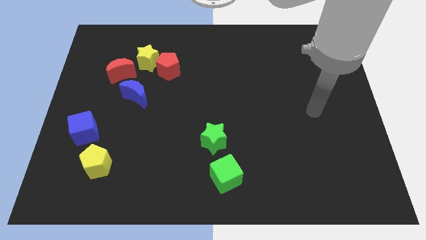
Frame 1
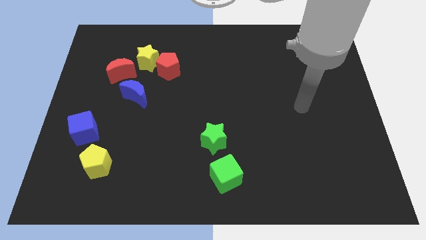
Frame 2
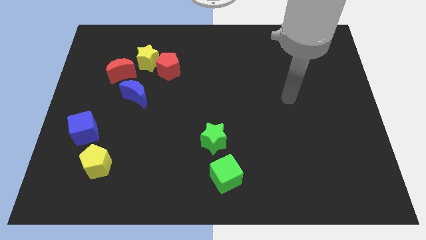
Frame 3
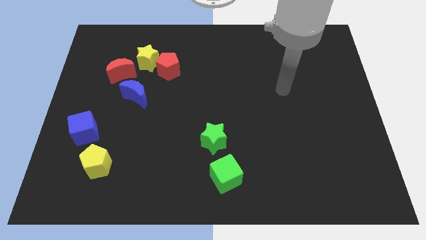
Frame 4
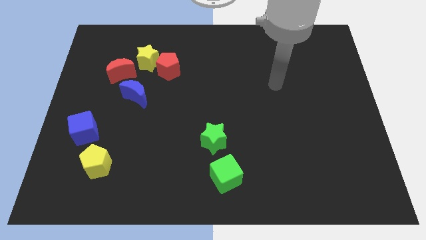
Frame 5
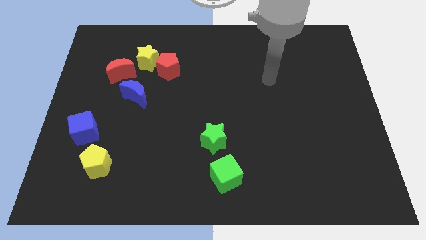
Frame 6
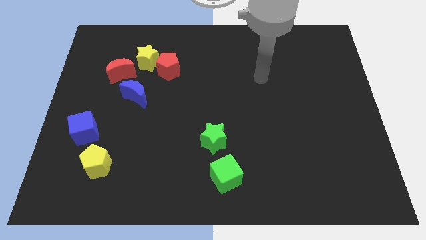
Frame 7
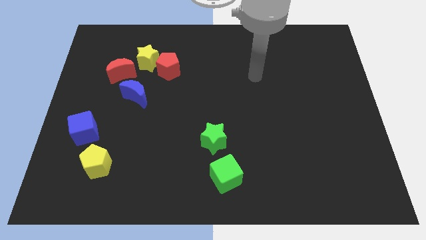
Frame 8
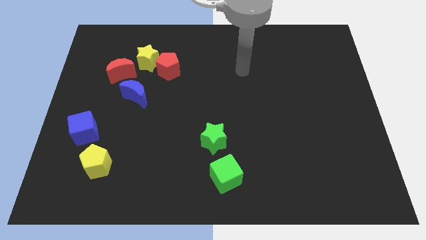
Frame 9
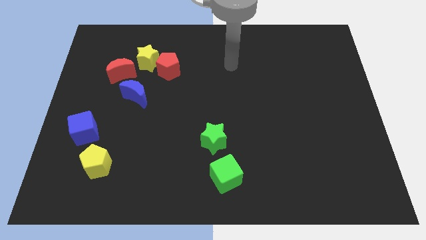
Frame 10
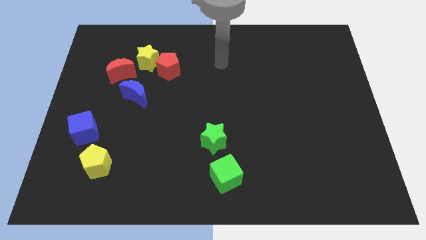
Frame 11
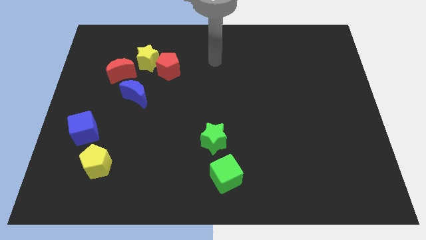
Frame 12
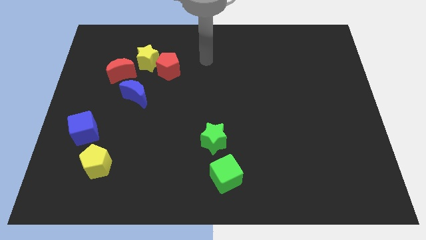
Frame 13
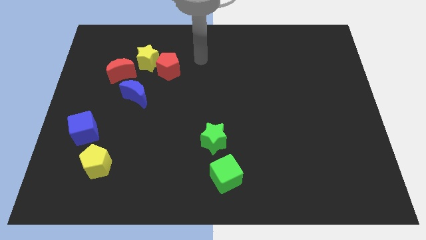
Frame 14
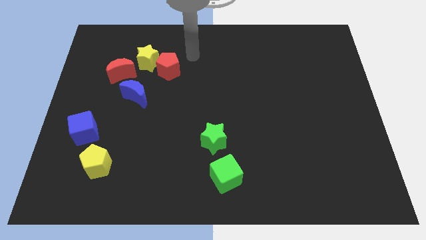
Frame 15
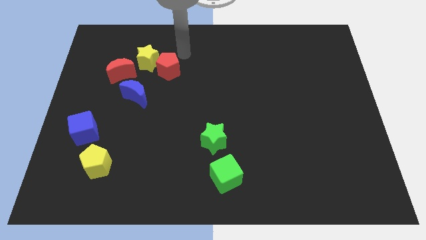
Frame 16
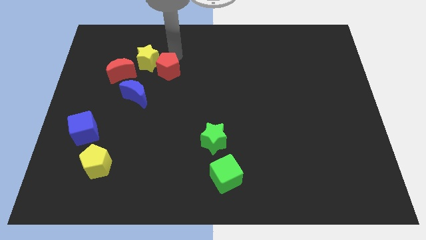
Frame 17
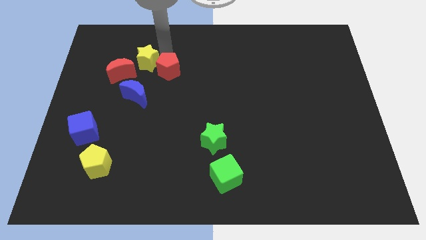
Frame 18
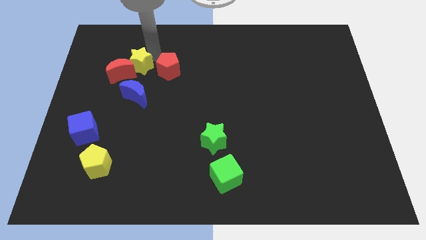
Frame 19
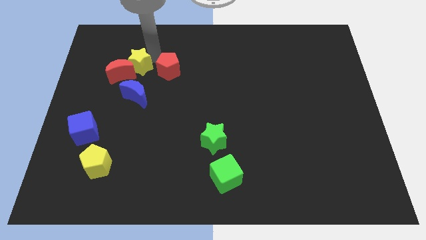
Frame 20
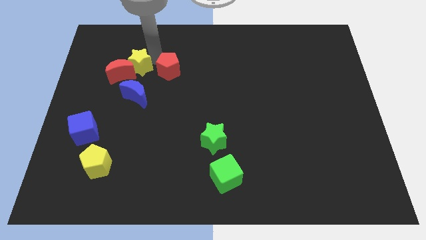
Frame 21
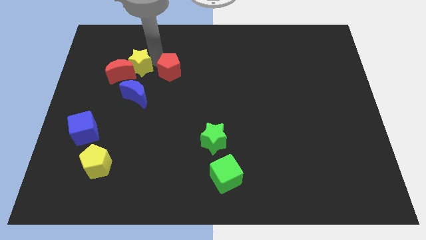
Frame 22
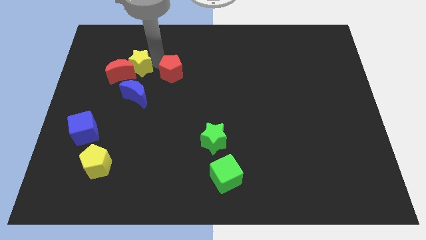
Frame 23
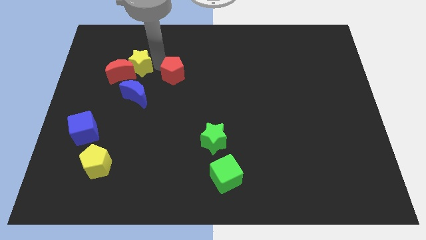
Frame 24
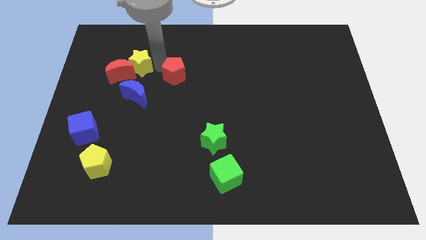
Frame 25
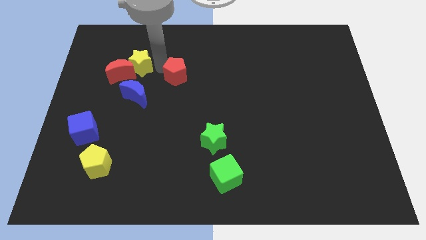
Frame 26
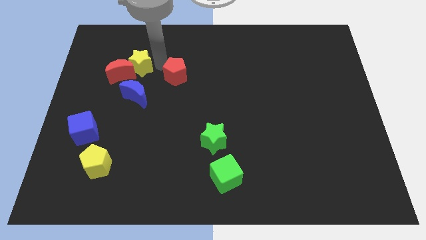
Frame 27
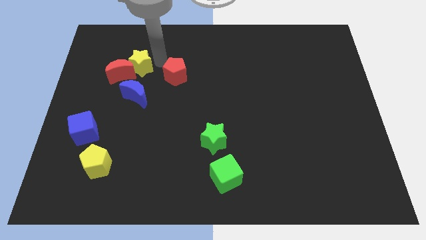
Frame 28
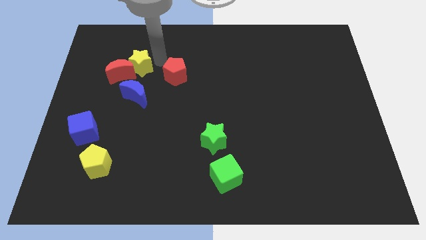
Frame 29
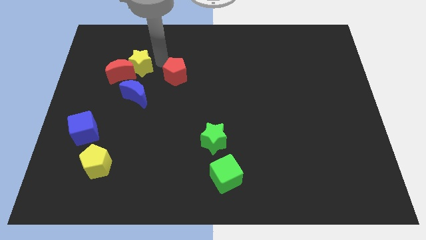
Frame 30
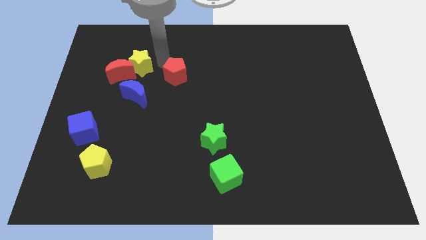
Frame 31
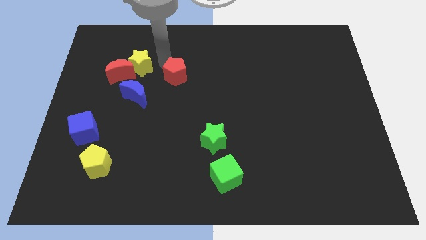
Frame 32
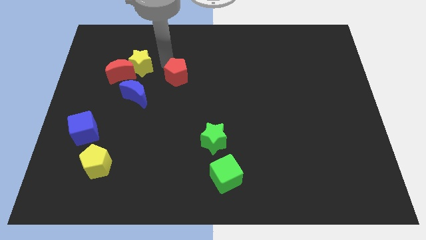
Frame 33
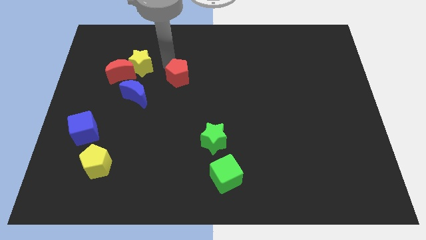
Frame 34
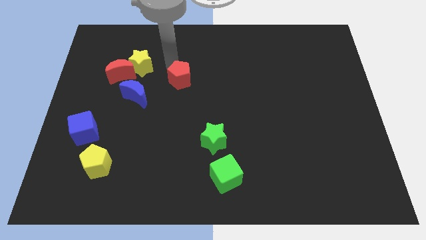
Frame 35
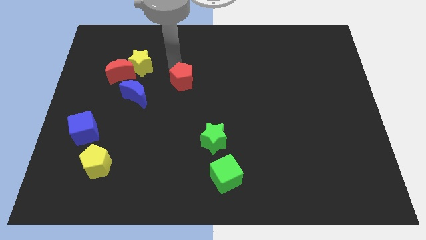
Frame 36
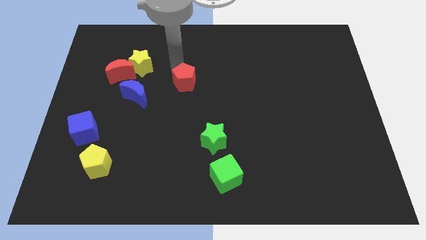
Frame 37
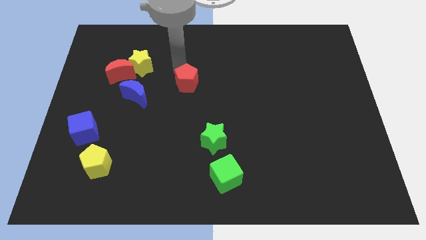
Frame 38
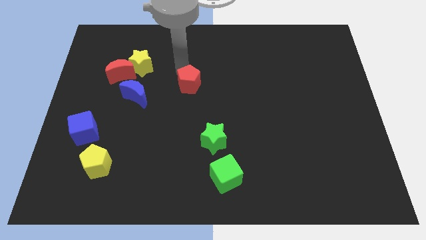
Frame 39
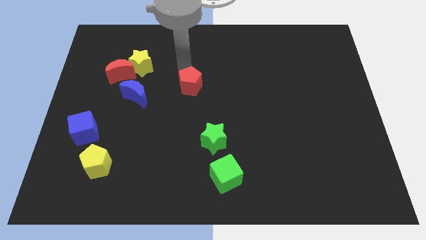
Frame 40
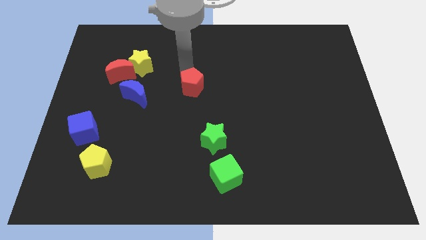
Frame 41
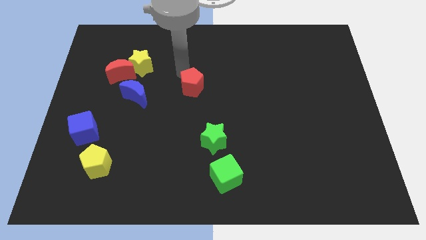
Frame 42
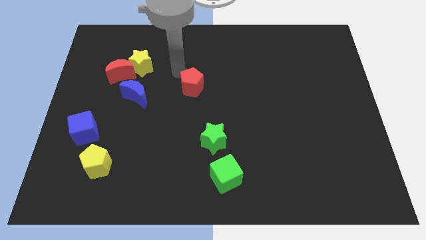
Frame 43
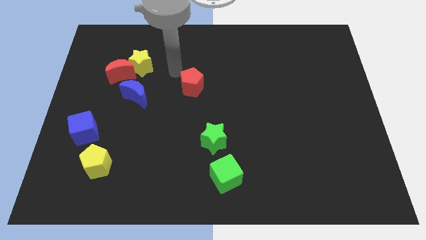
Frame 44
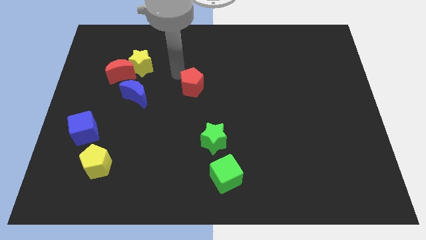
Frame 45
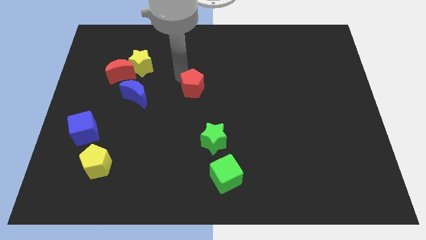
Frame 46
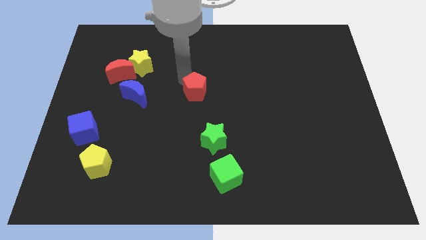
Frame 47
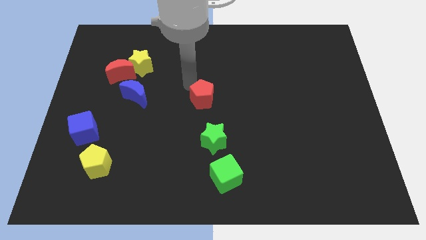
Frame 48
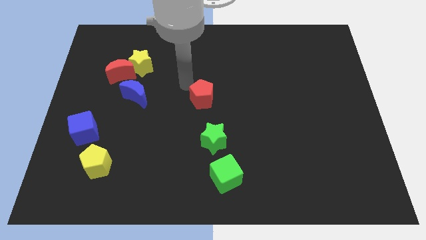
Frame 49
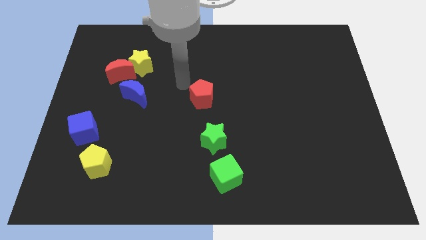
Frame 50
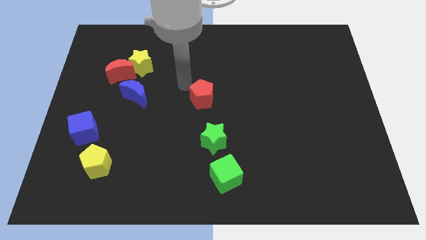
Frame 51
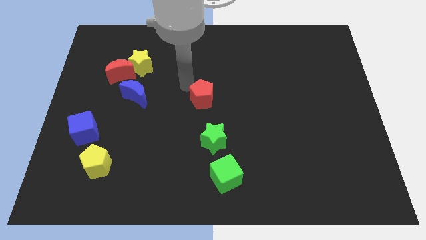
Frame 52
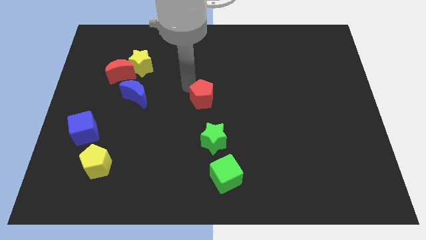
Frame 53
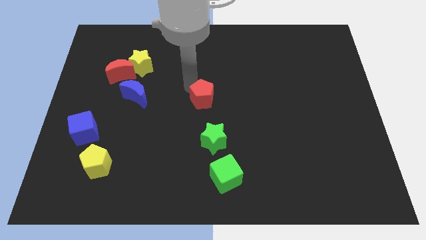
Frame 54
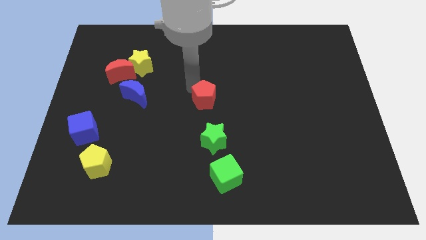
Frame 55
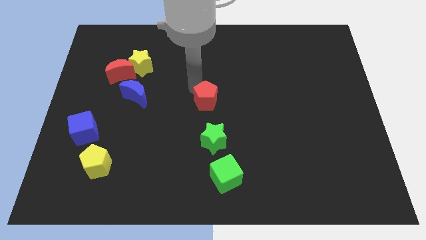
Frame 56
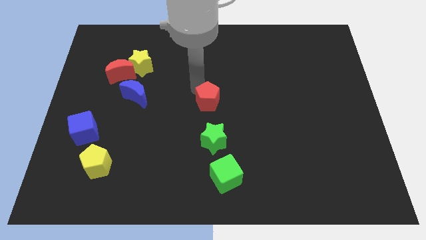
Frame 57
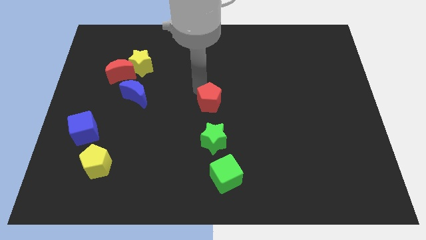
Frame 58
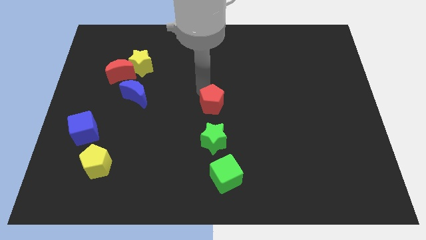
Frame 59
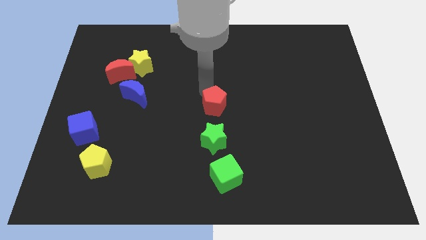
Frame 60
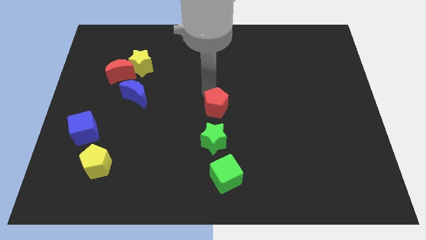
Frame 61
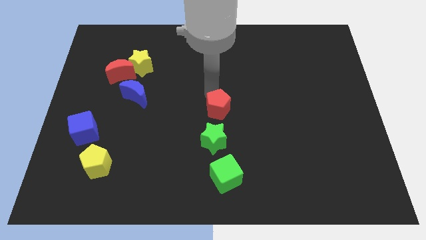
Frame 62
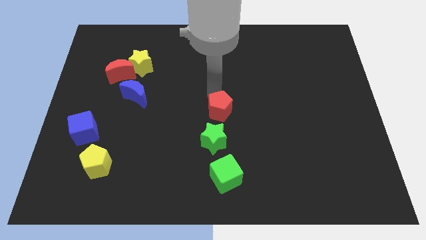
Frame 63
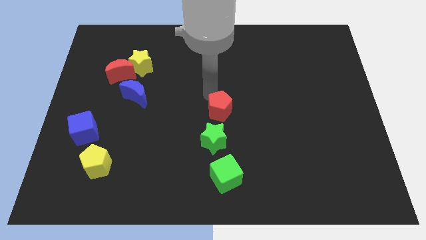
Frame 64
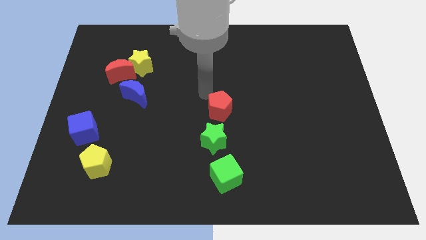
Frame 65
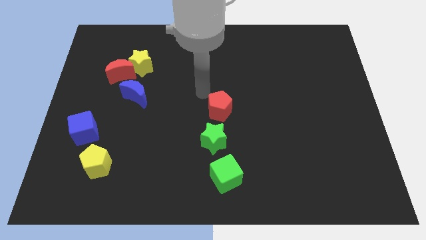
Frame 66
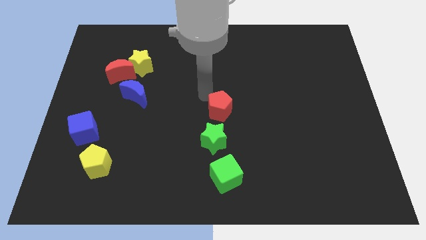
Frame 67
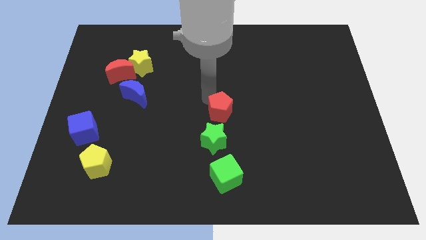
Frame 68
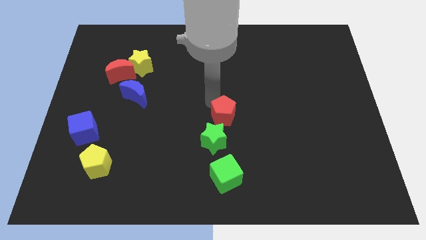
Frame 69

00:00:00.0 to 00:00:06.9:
slide the red pentagon downwards and then right

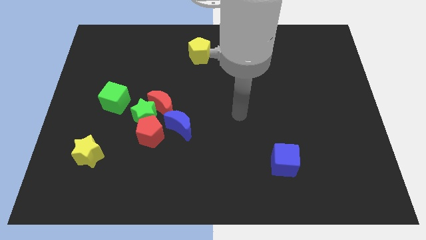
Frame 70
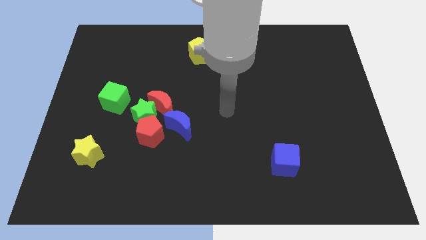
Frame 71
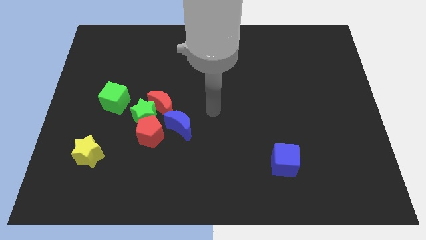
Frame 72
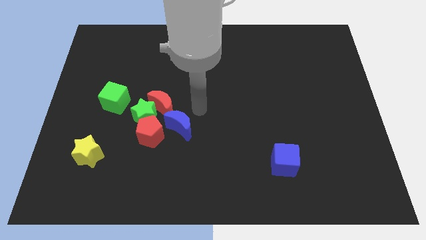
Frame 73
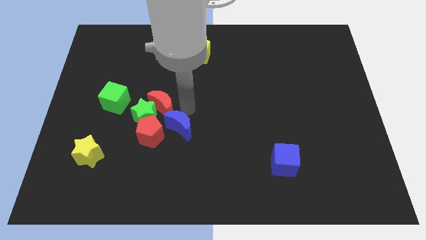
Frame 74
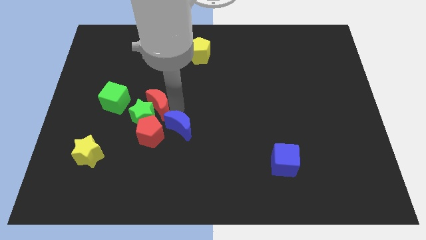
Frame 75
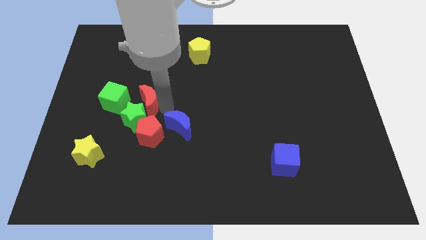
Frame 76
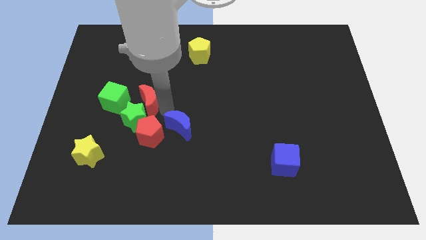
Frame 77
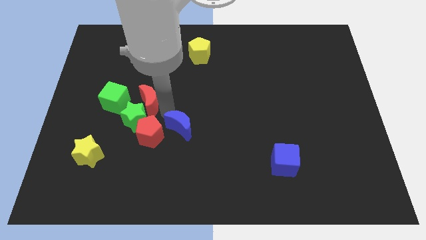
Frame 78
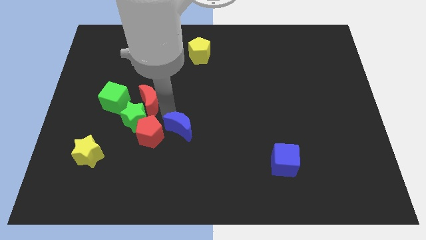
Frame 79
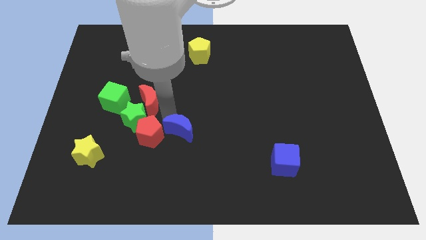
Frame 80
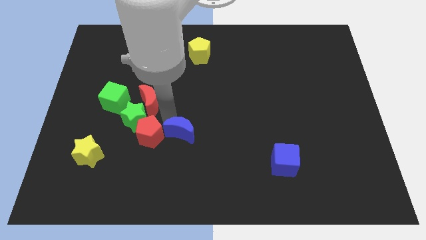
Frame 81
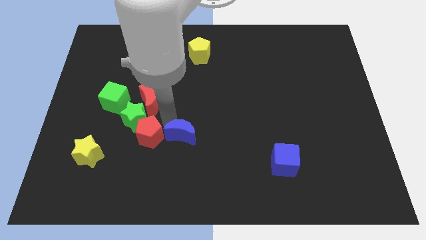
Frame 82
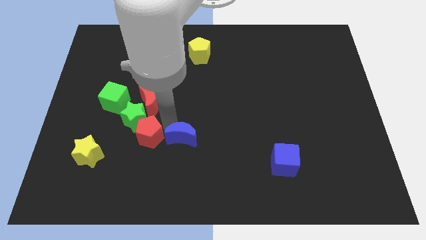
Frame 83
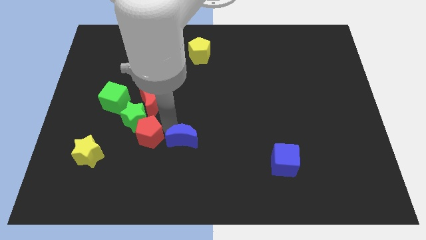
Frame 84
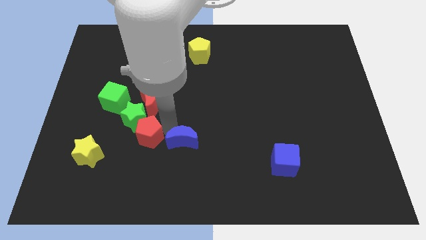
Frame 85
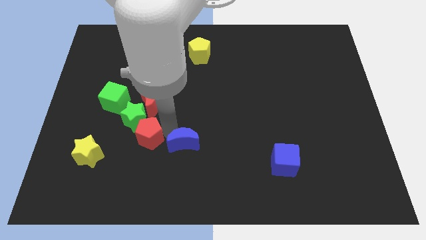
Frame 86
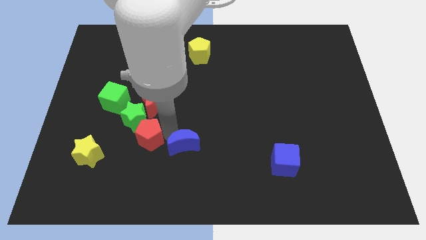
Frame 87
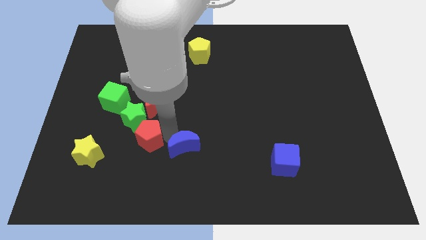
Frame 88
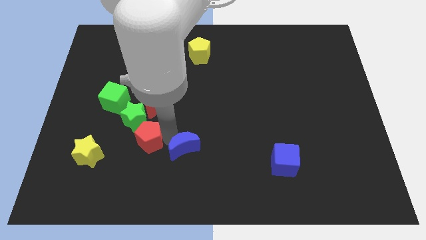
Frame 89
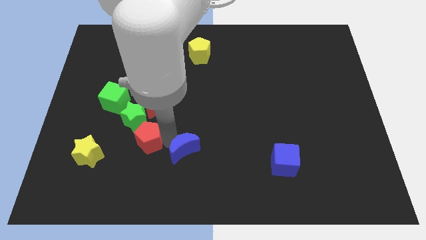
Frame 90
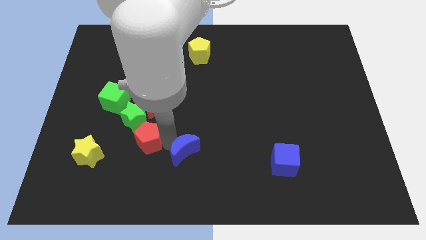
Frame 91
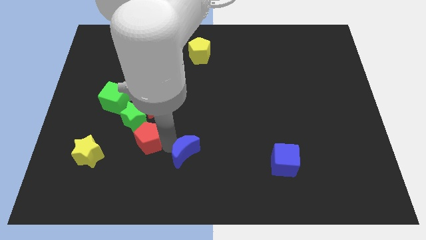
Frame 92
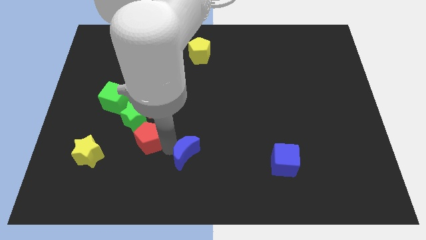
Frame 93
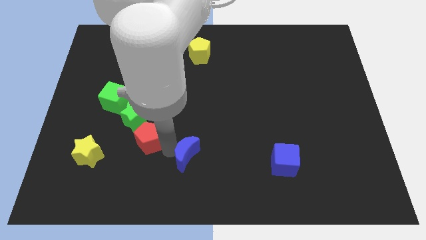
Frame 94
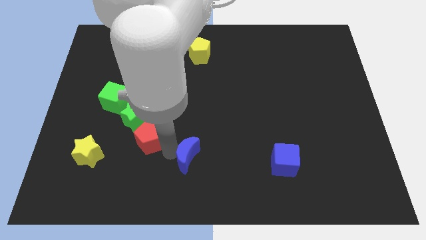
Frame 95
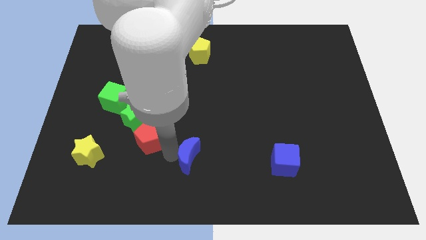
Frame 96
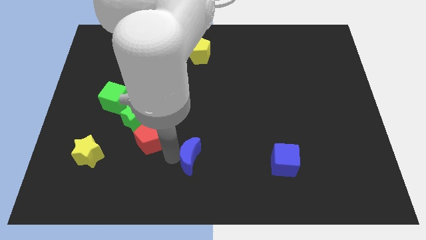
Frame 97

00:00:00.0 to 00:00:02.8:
push the blue moon downwards and right diagonally a bit
